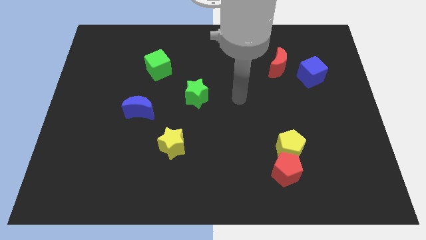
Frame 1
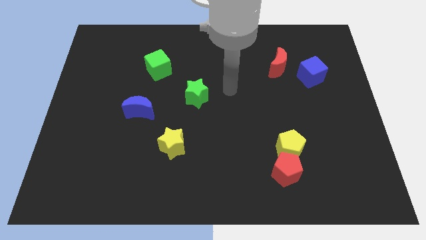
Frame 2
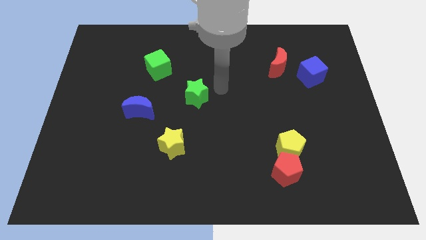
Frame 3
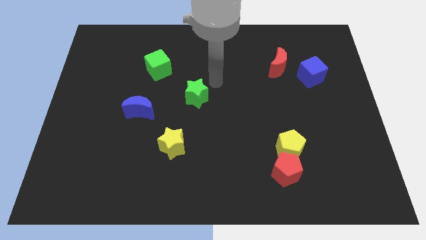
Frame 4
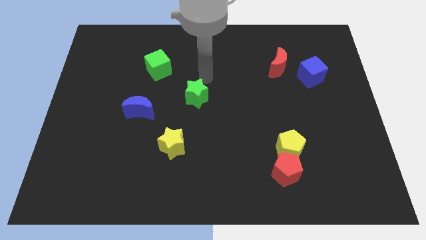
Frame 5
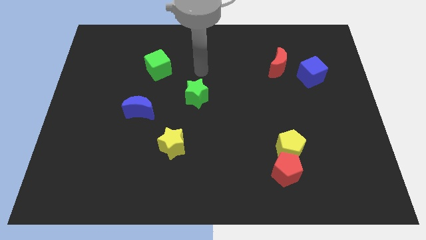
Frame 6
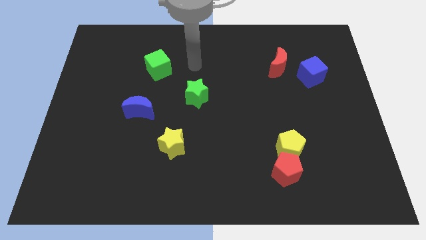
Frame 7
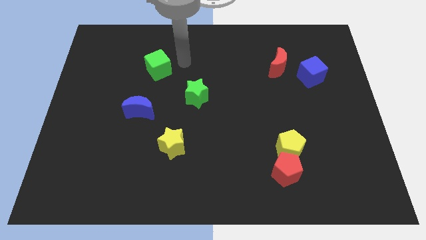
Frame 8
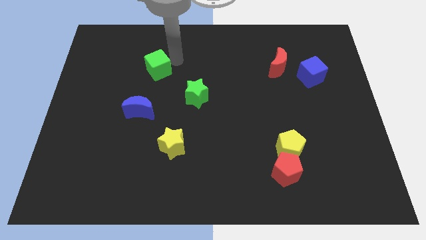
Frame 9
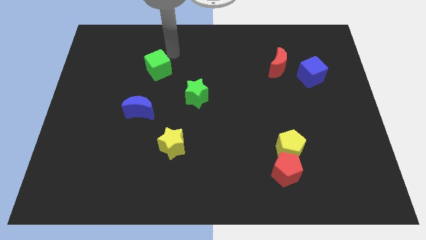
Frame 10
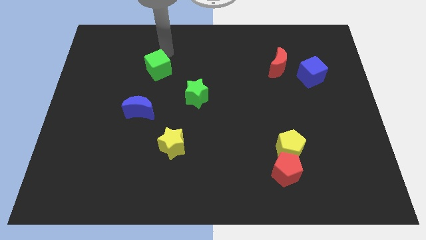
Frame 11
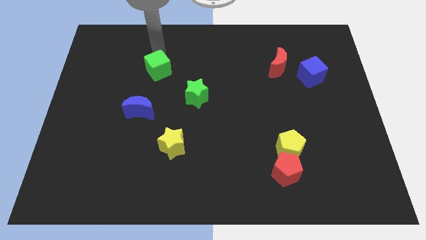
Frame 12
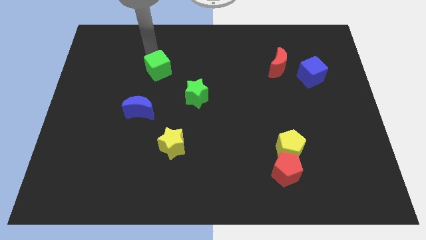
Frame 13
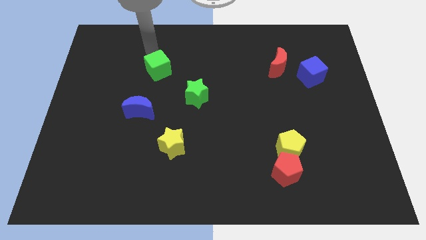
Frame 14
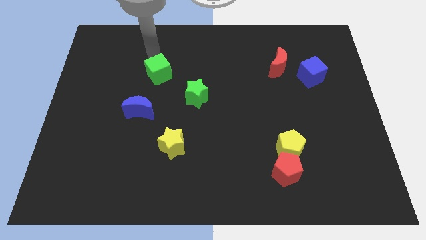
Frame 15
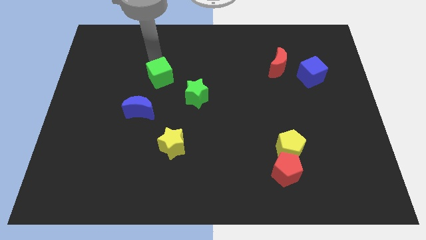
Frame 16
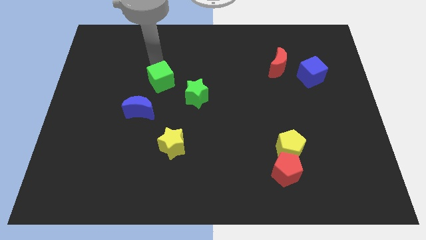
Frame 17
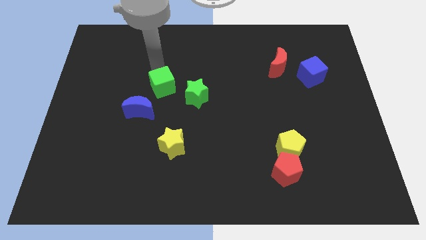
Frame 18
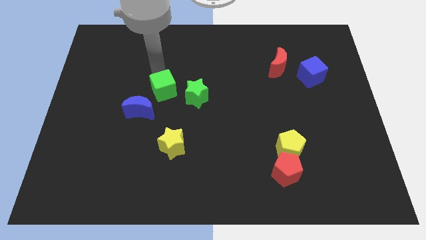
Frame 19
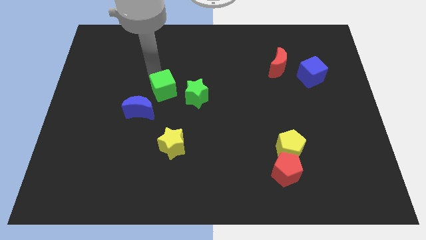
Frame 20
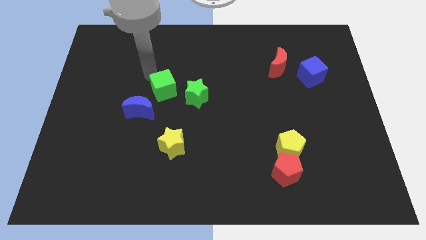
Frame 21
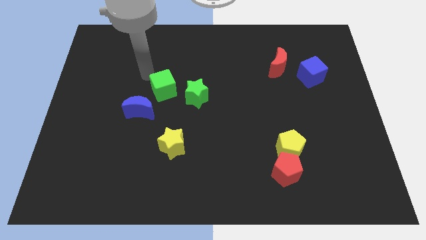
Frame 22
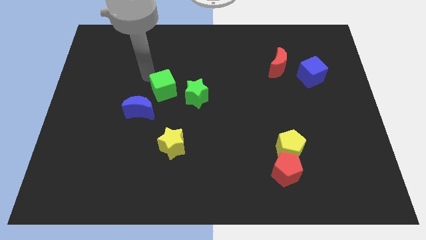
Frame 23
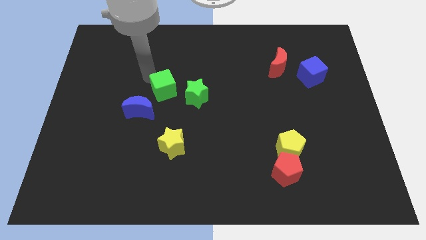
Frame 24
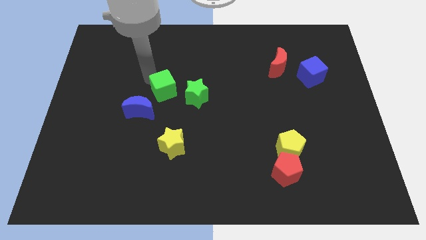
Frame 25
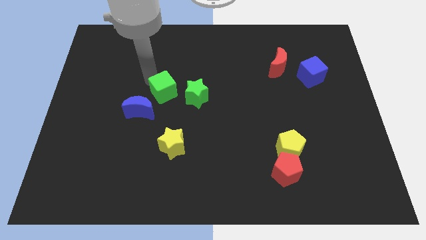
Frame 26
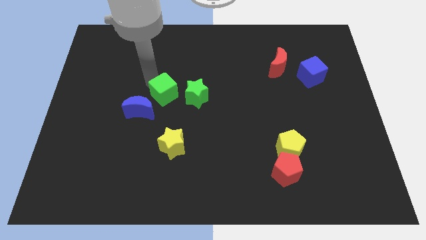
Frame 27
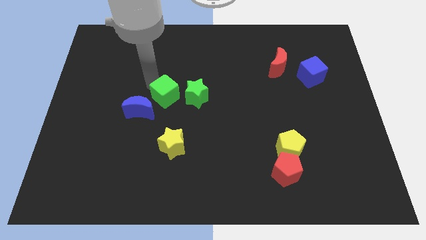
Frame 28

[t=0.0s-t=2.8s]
push the green cube a bit downwards and then to the right

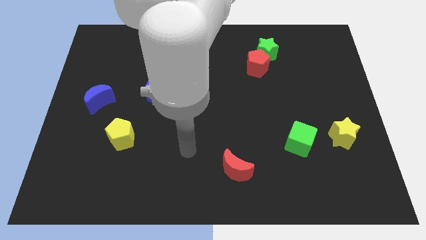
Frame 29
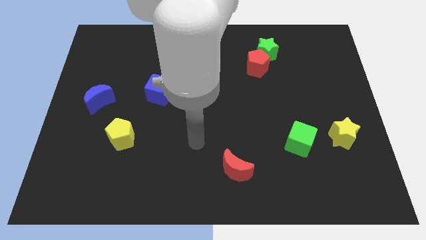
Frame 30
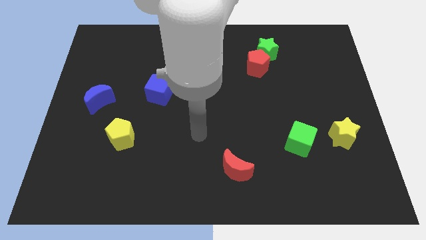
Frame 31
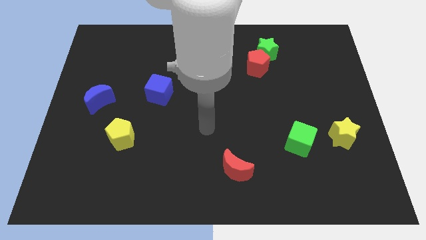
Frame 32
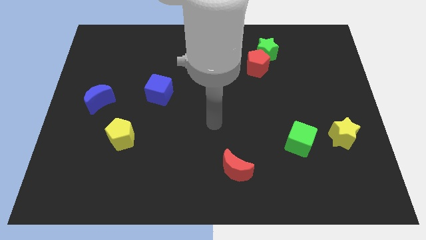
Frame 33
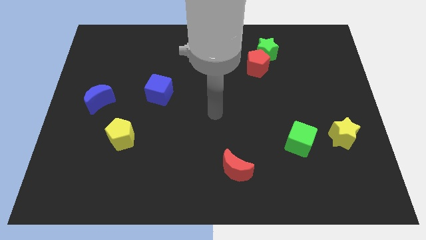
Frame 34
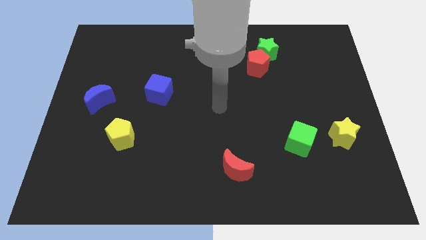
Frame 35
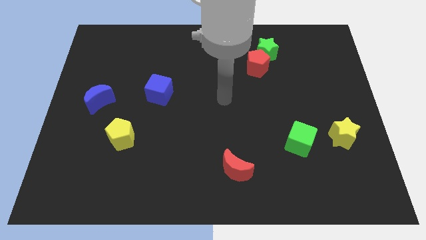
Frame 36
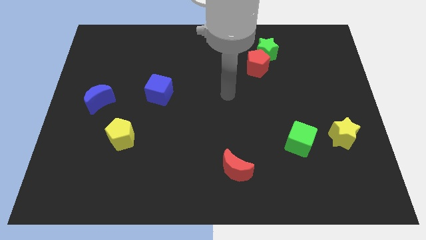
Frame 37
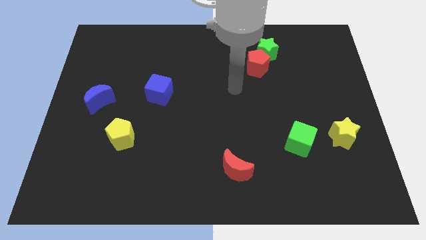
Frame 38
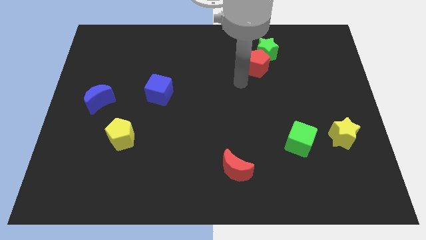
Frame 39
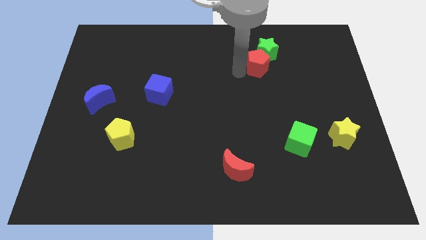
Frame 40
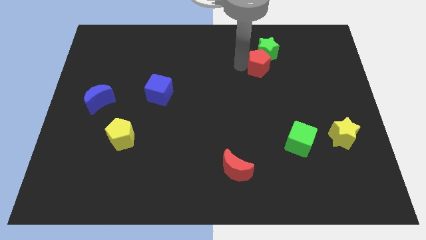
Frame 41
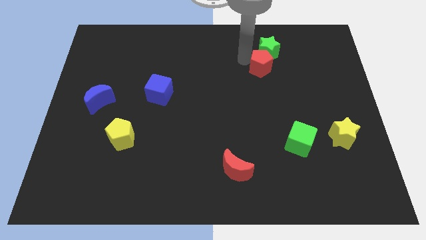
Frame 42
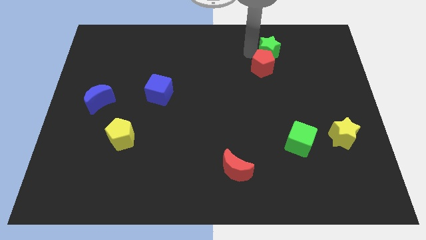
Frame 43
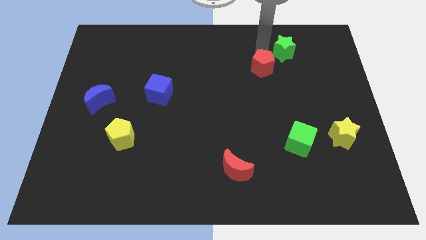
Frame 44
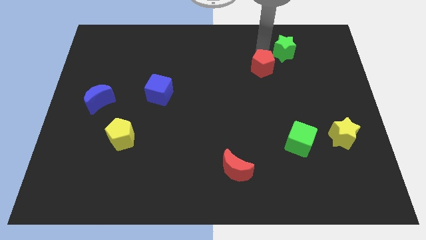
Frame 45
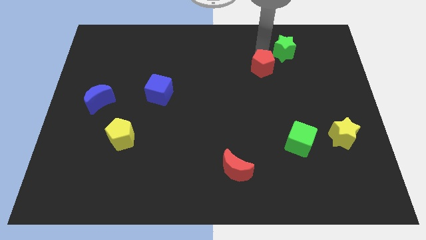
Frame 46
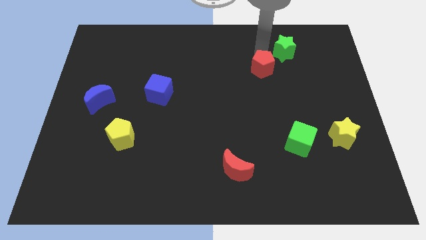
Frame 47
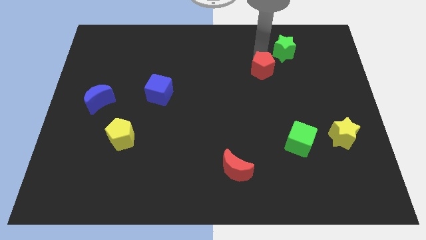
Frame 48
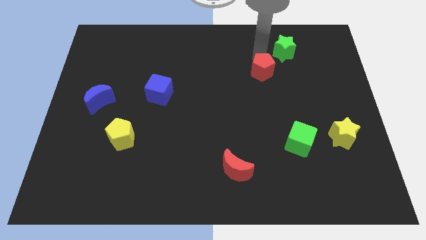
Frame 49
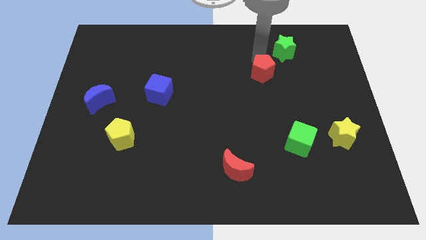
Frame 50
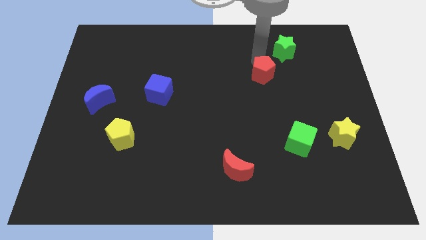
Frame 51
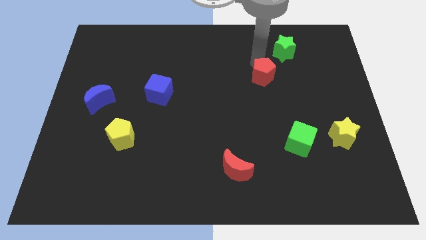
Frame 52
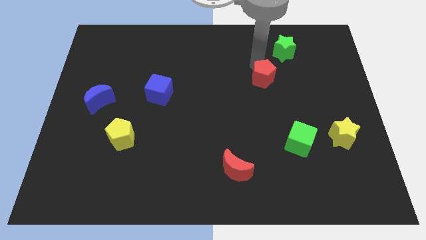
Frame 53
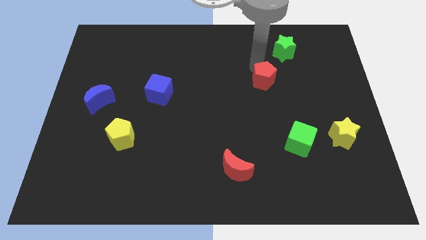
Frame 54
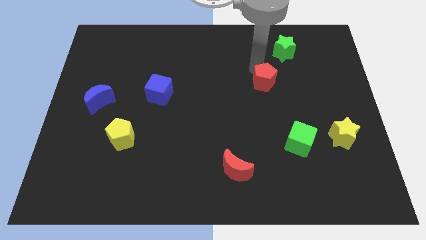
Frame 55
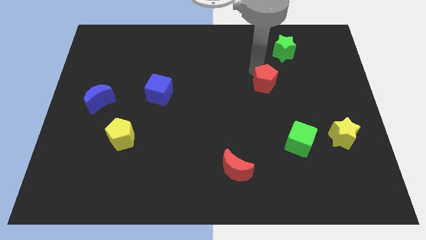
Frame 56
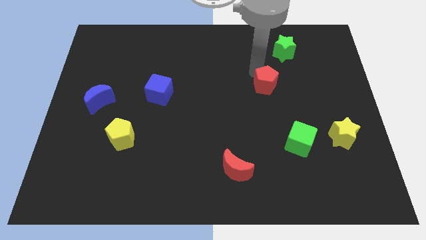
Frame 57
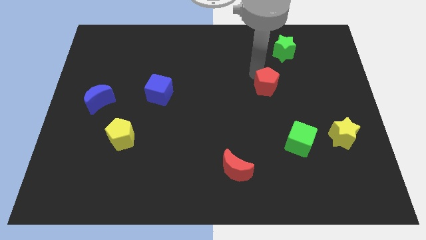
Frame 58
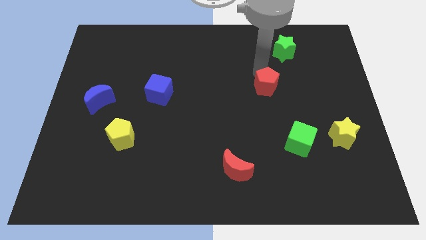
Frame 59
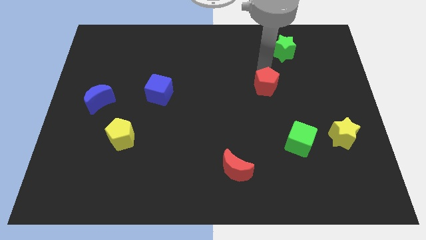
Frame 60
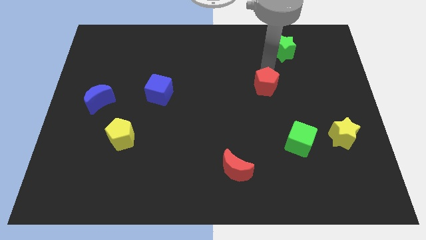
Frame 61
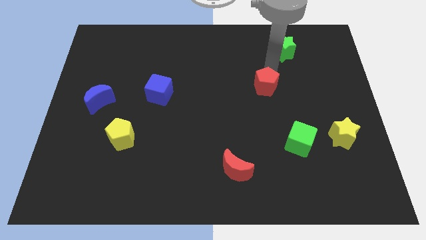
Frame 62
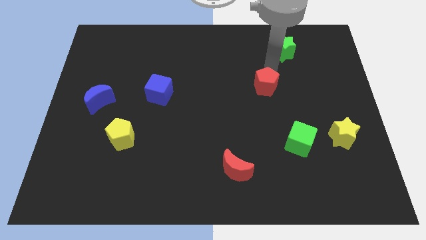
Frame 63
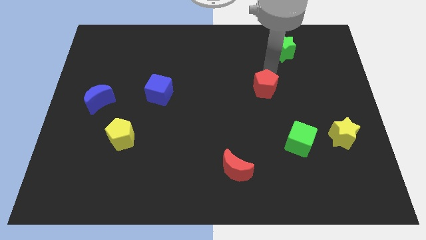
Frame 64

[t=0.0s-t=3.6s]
slightly move the red pentagon down

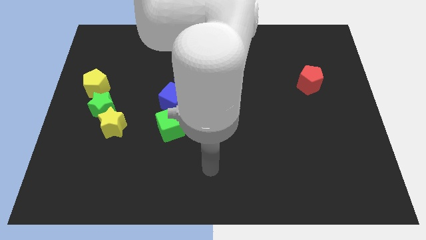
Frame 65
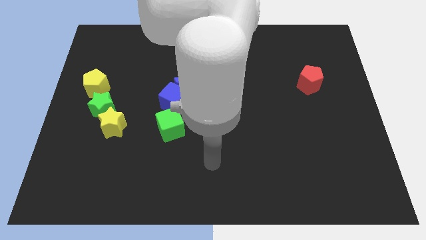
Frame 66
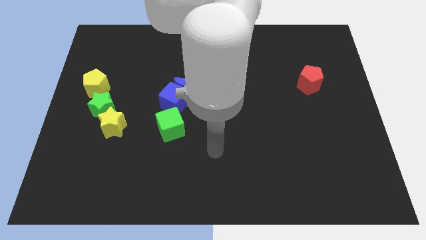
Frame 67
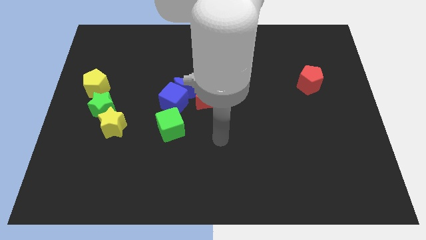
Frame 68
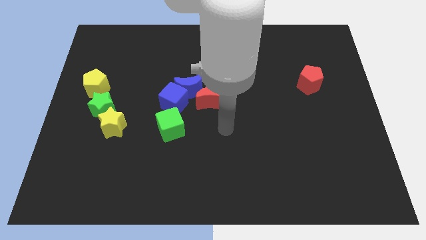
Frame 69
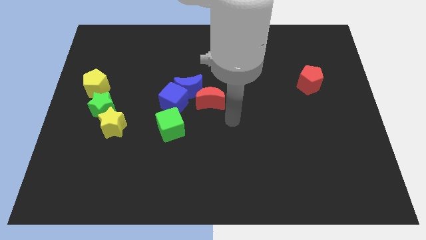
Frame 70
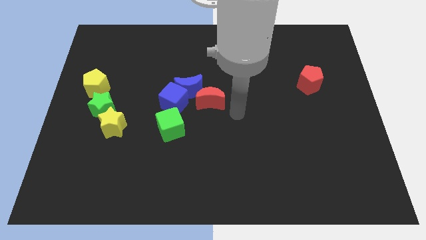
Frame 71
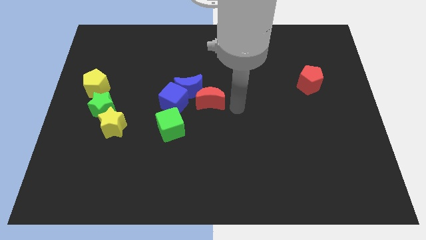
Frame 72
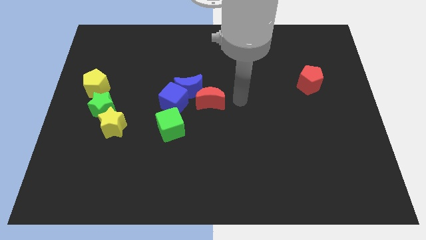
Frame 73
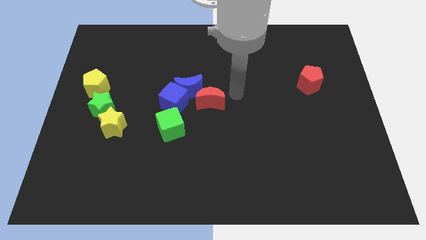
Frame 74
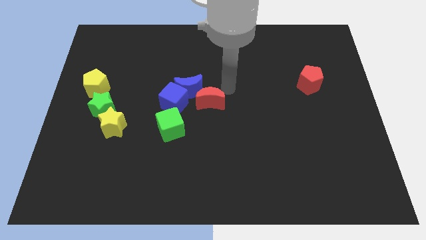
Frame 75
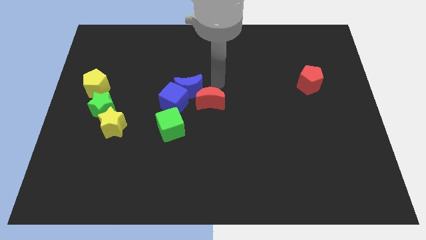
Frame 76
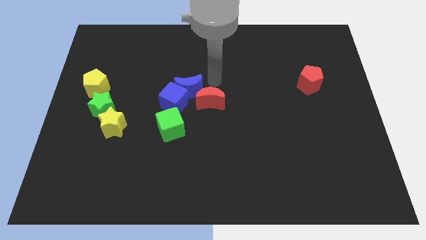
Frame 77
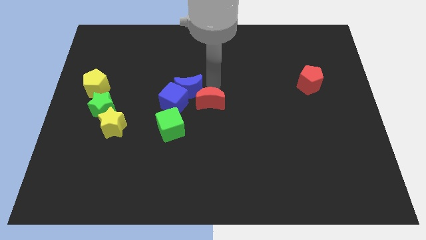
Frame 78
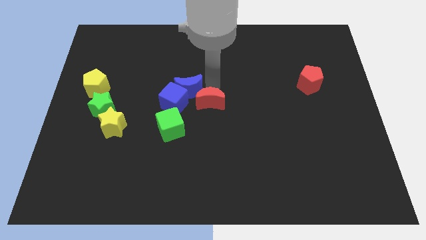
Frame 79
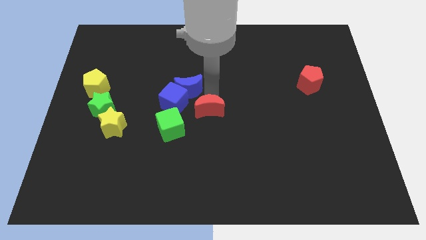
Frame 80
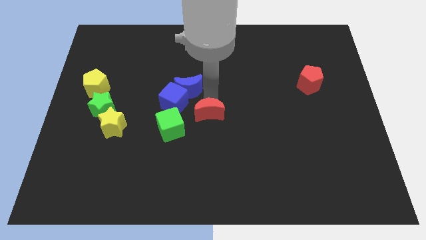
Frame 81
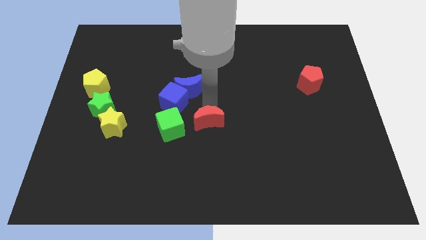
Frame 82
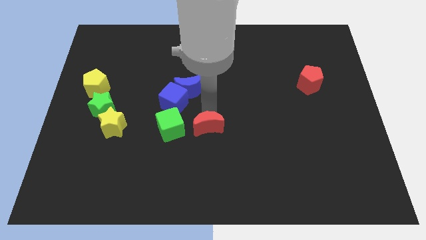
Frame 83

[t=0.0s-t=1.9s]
slightly slide the red moon downwards
